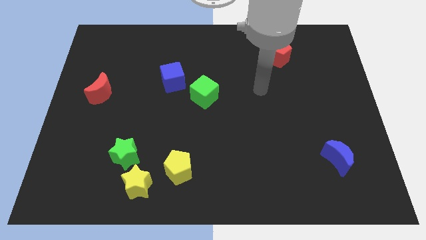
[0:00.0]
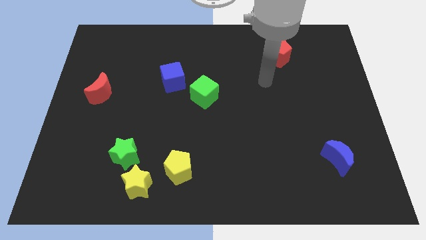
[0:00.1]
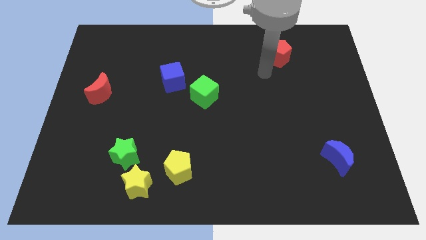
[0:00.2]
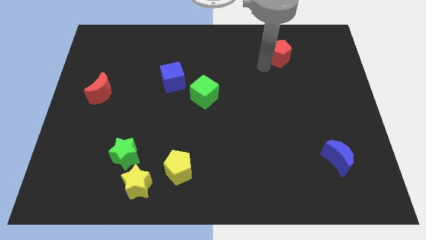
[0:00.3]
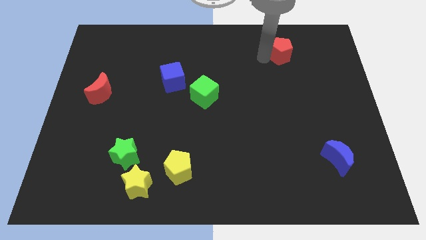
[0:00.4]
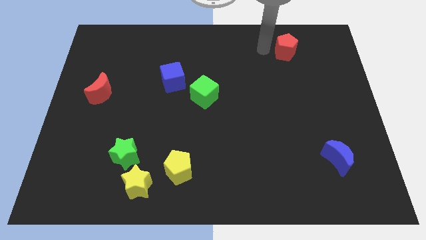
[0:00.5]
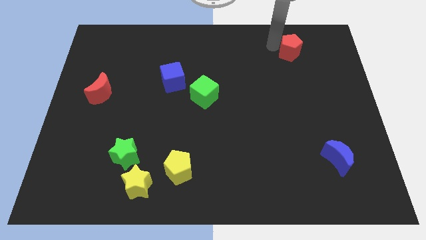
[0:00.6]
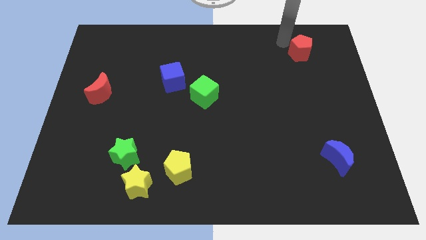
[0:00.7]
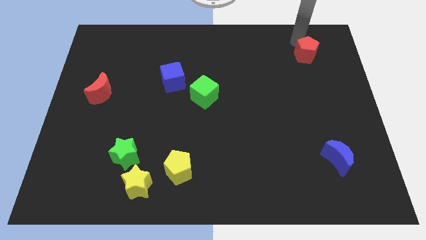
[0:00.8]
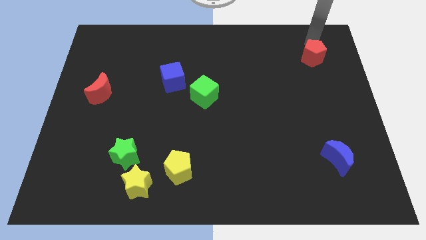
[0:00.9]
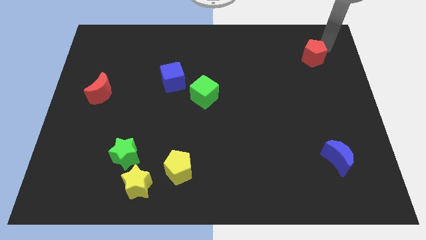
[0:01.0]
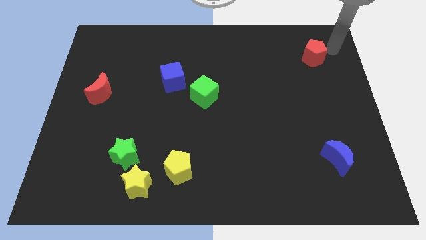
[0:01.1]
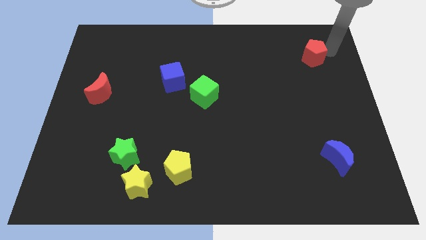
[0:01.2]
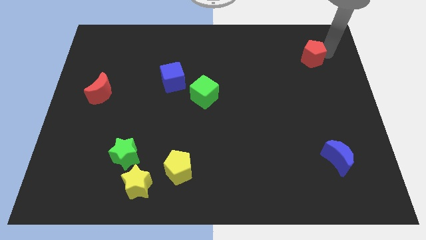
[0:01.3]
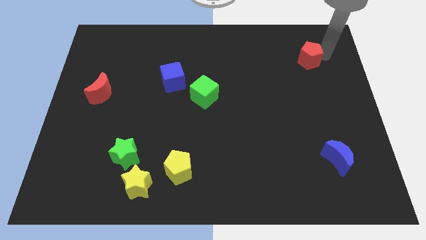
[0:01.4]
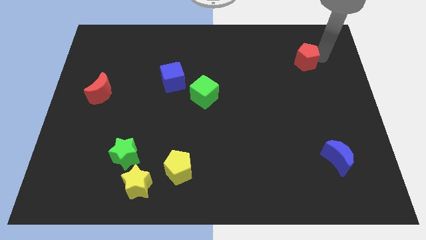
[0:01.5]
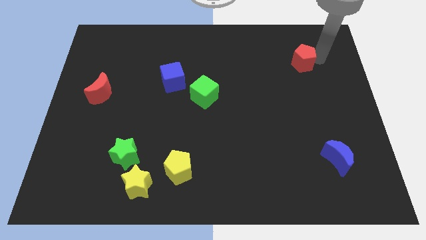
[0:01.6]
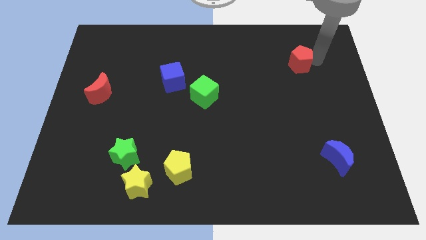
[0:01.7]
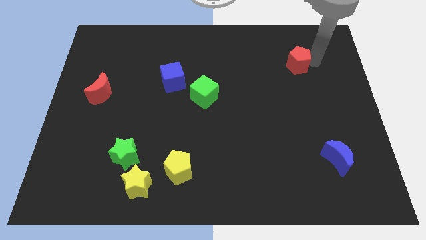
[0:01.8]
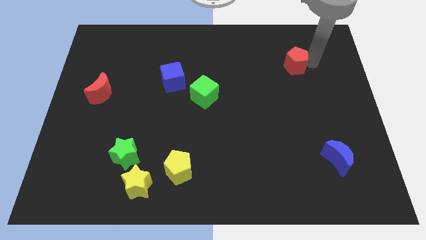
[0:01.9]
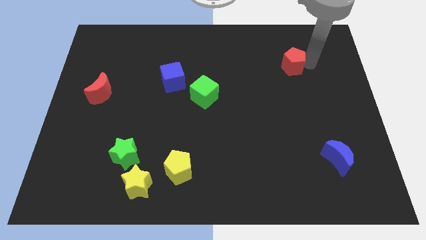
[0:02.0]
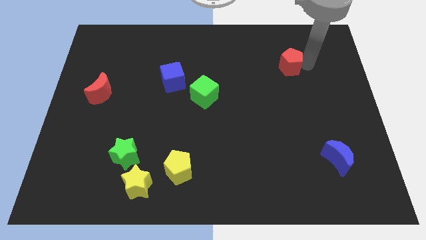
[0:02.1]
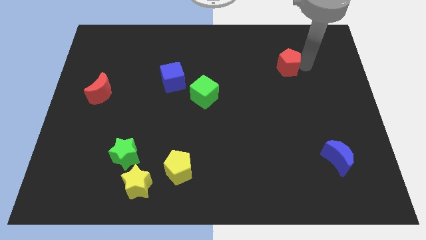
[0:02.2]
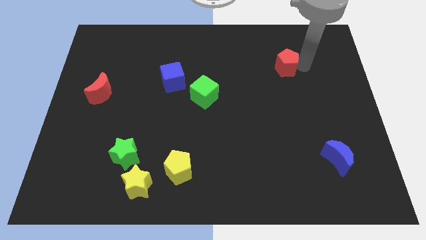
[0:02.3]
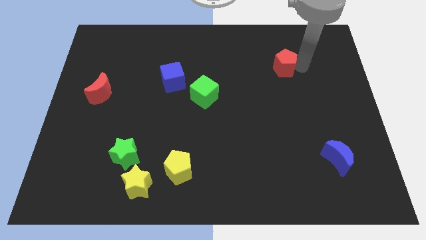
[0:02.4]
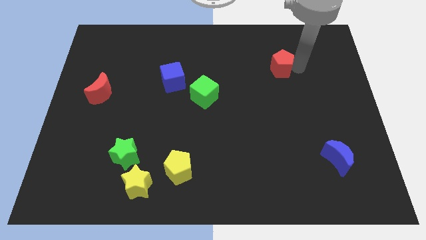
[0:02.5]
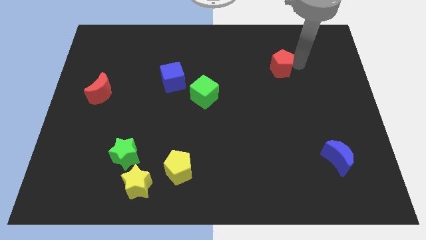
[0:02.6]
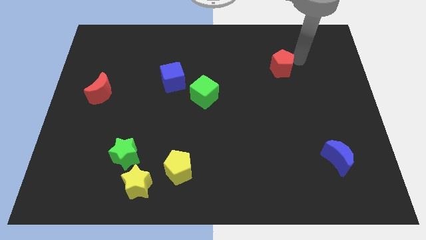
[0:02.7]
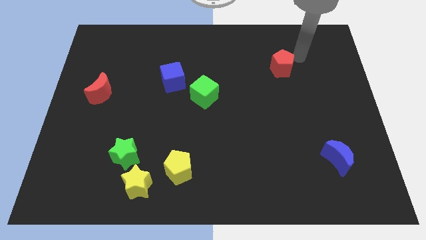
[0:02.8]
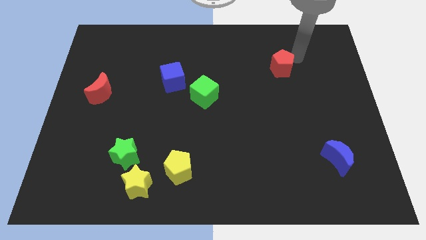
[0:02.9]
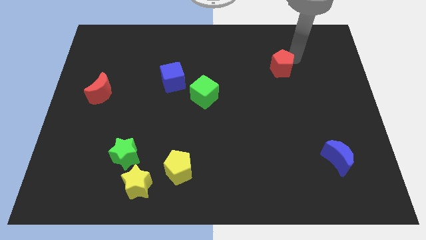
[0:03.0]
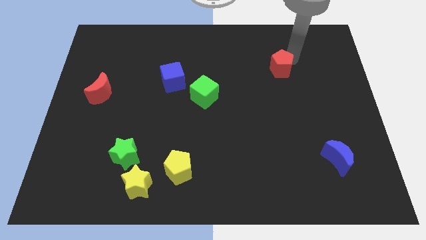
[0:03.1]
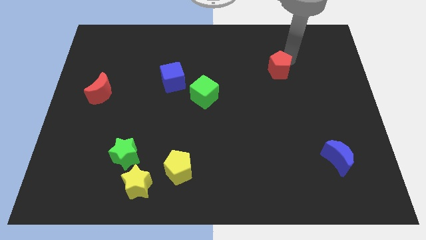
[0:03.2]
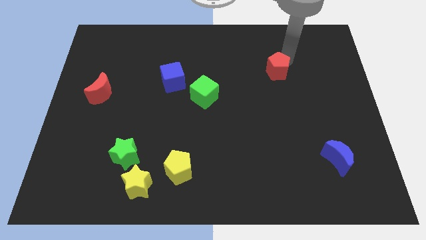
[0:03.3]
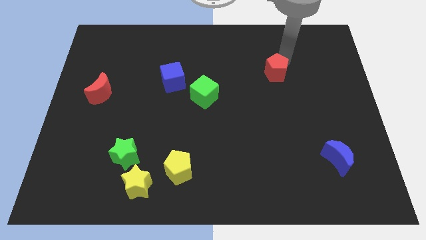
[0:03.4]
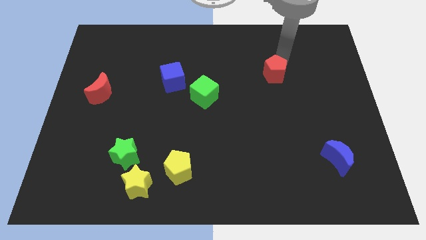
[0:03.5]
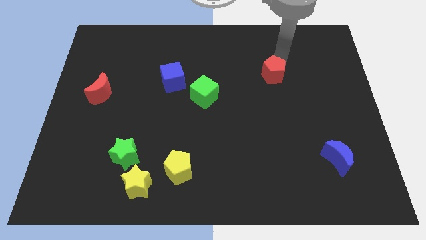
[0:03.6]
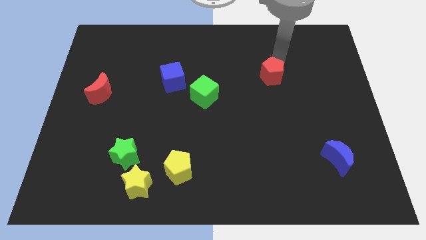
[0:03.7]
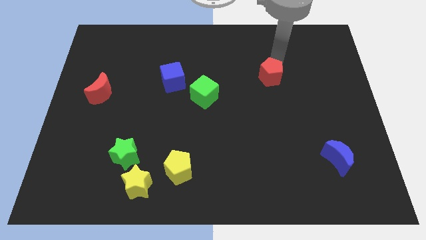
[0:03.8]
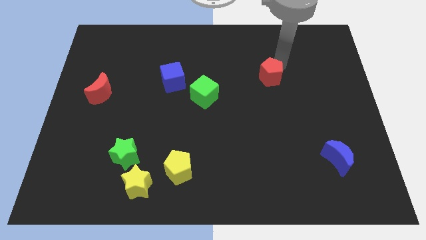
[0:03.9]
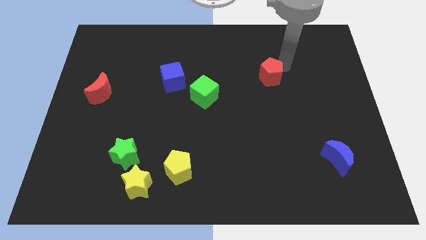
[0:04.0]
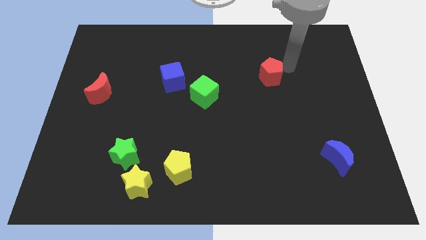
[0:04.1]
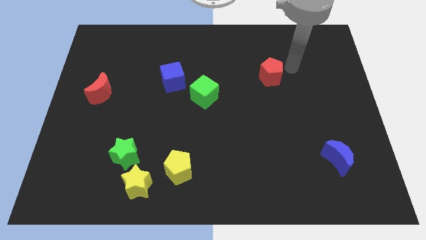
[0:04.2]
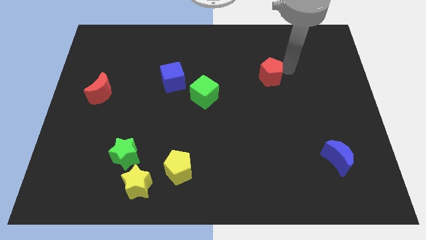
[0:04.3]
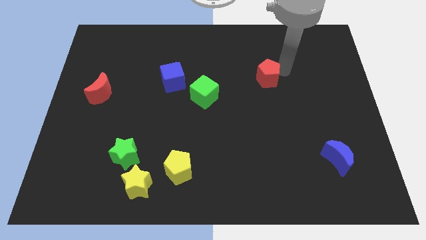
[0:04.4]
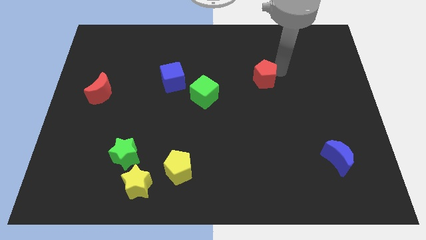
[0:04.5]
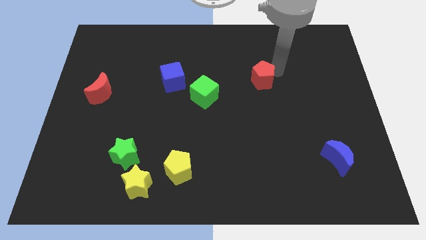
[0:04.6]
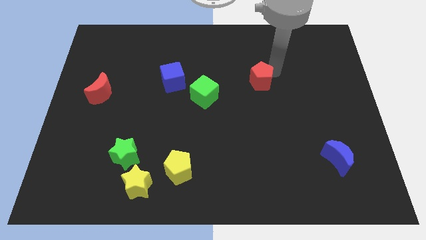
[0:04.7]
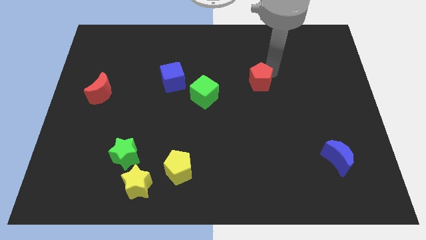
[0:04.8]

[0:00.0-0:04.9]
move the red pentagon to the right of the green cube

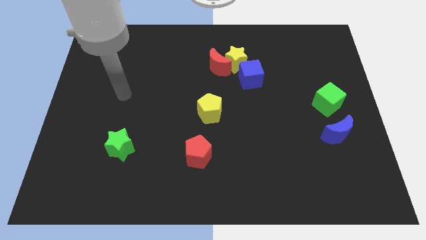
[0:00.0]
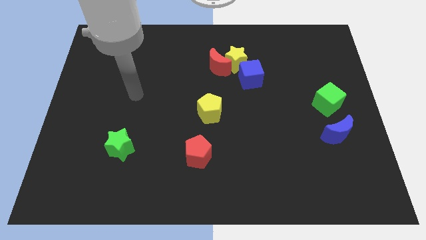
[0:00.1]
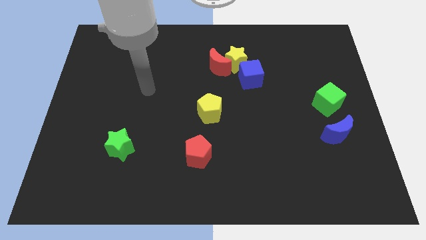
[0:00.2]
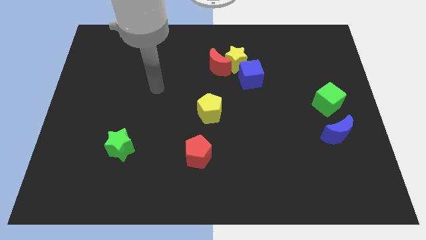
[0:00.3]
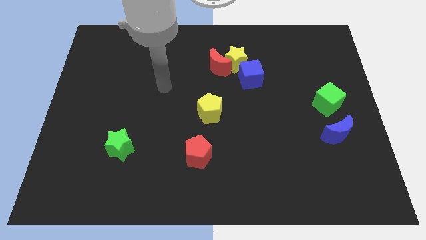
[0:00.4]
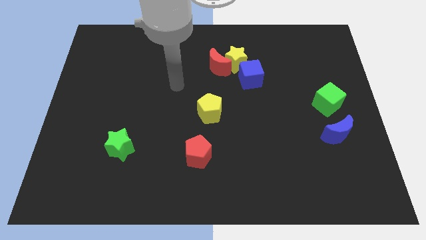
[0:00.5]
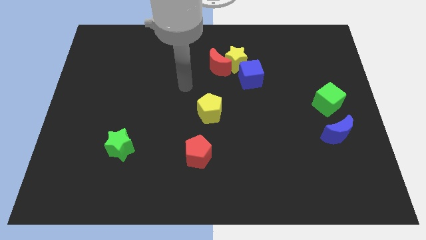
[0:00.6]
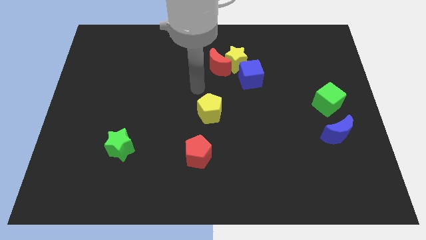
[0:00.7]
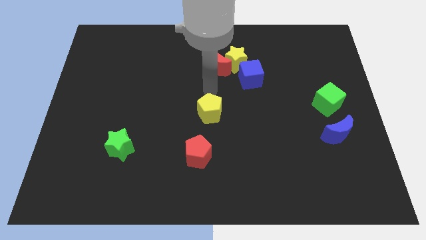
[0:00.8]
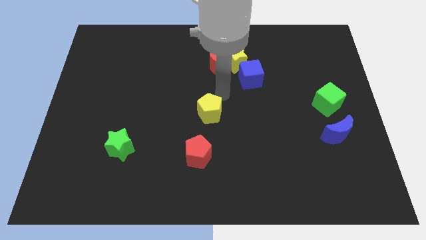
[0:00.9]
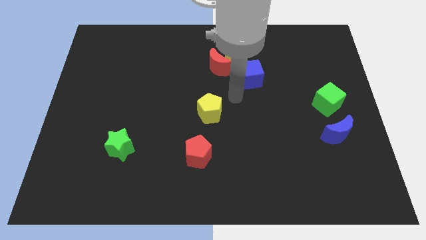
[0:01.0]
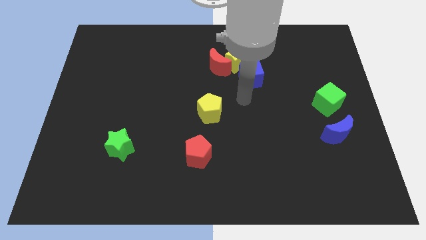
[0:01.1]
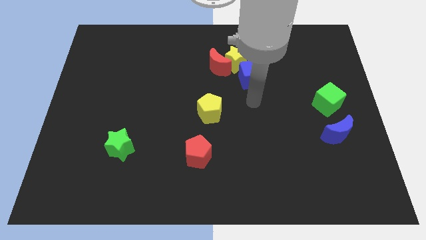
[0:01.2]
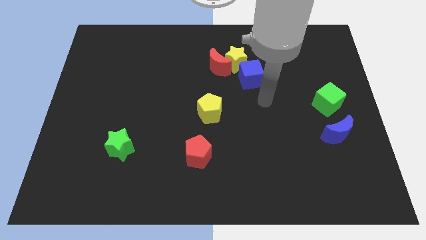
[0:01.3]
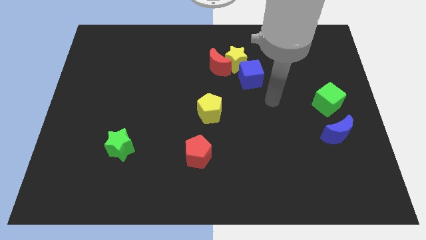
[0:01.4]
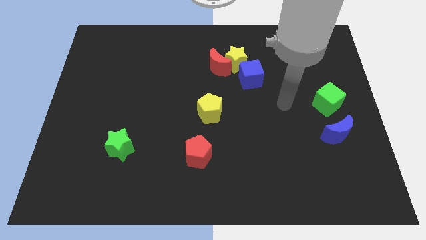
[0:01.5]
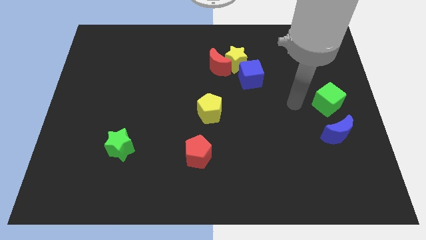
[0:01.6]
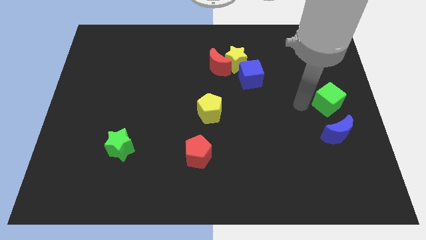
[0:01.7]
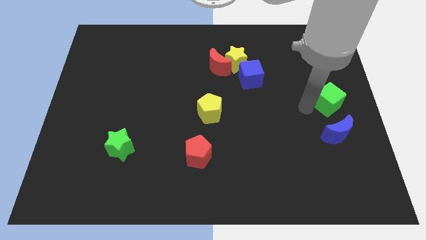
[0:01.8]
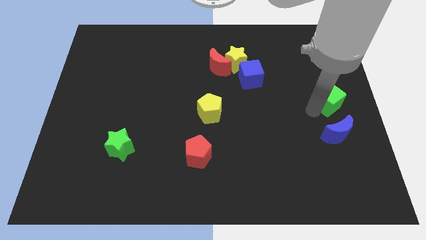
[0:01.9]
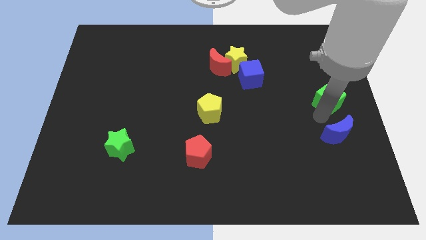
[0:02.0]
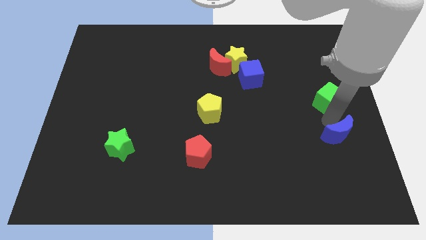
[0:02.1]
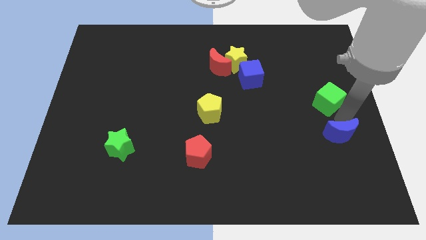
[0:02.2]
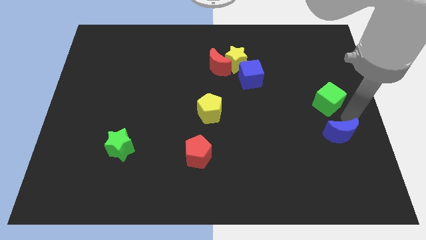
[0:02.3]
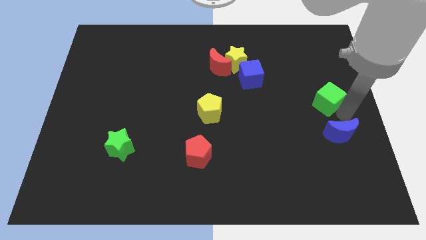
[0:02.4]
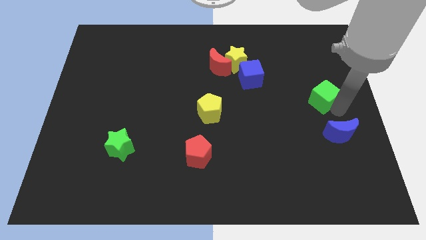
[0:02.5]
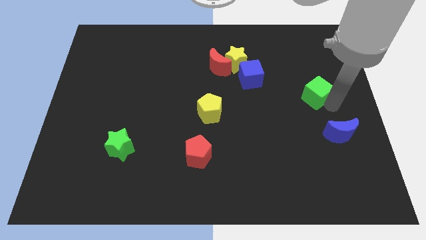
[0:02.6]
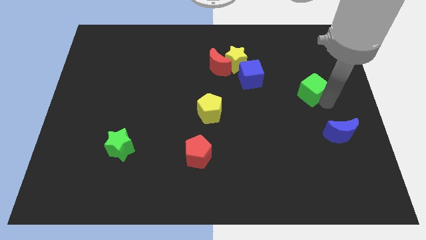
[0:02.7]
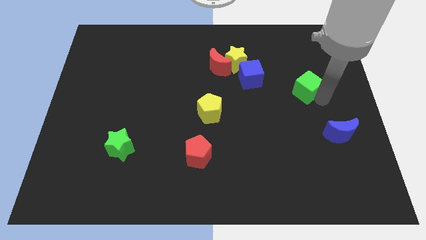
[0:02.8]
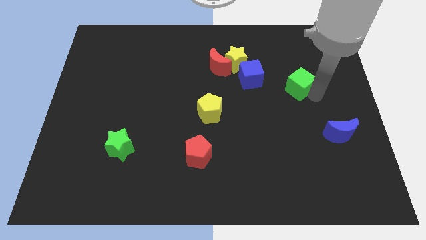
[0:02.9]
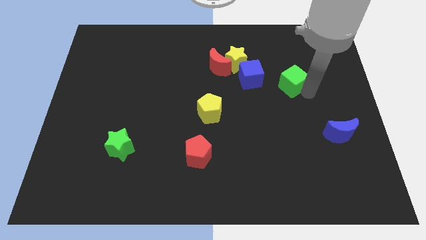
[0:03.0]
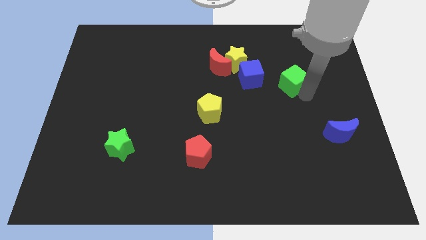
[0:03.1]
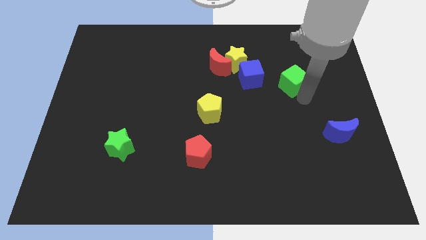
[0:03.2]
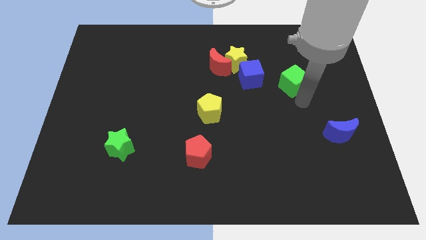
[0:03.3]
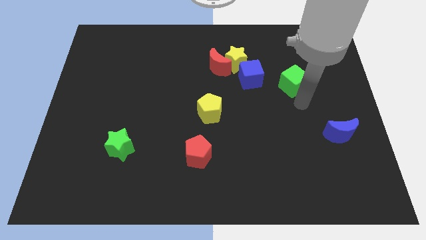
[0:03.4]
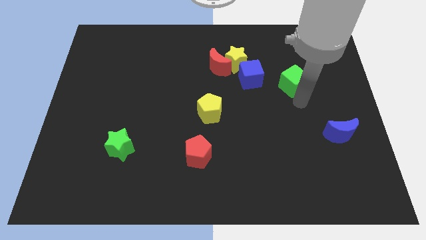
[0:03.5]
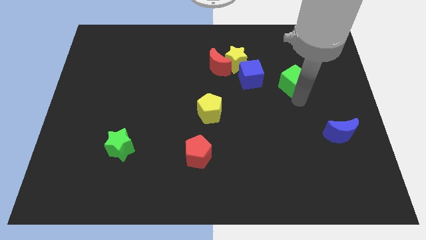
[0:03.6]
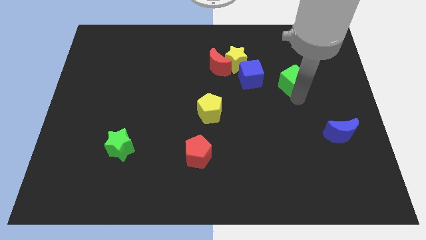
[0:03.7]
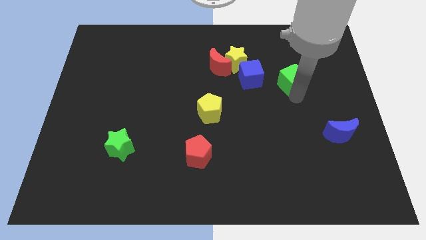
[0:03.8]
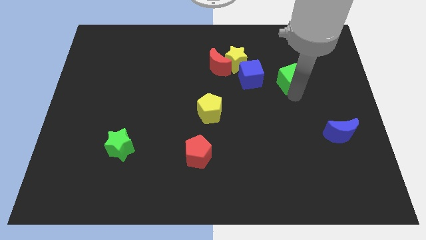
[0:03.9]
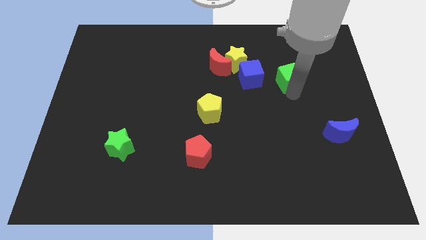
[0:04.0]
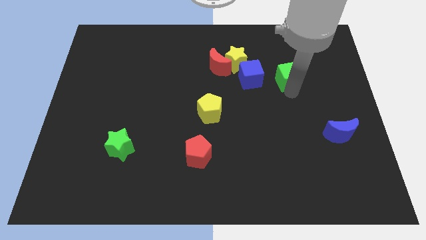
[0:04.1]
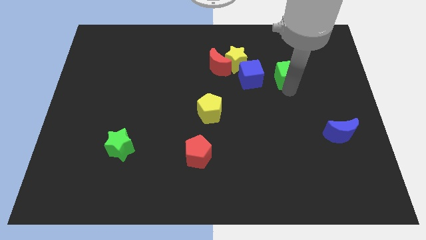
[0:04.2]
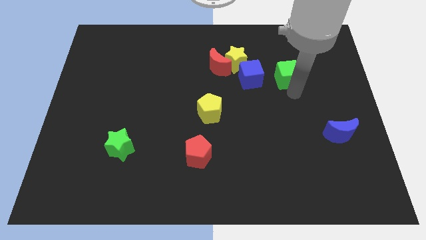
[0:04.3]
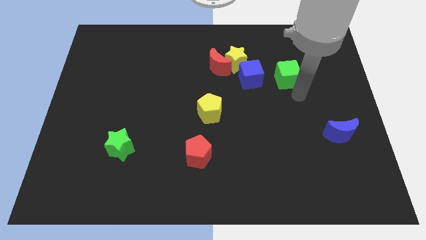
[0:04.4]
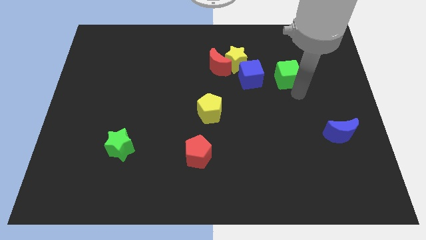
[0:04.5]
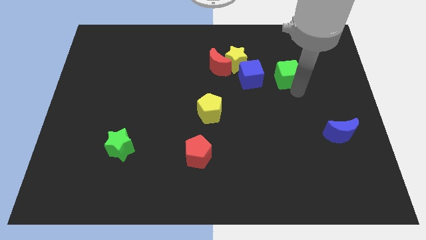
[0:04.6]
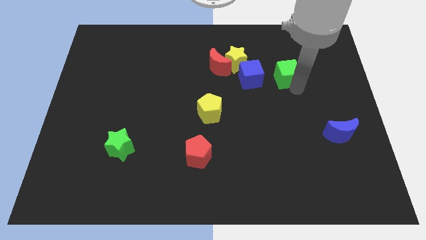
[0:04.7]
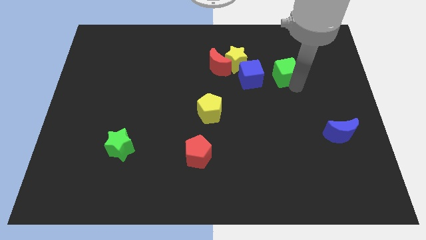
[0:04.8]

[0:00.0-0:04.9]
put the green cube right of the yellow star
